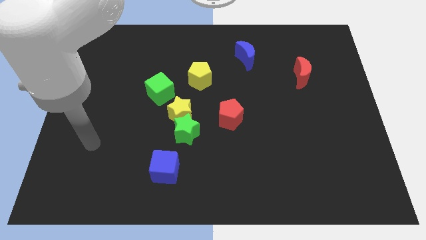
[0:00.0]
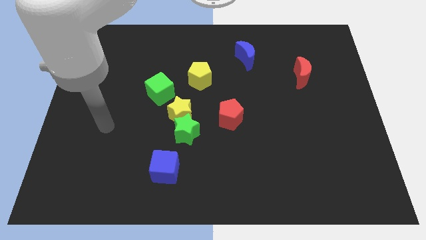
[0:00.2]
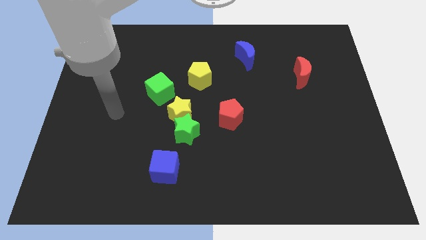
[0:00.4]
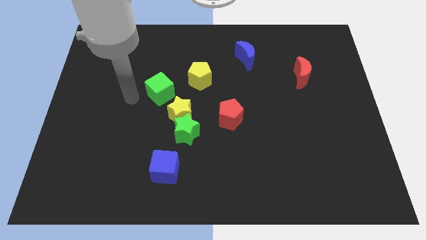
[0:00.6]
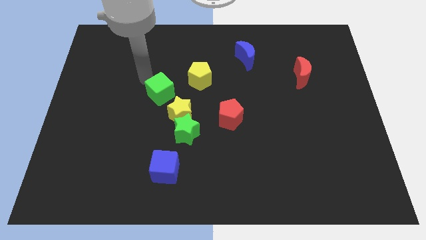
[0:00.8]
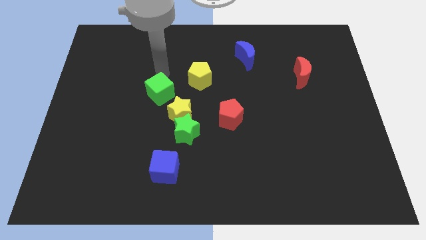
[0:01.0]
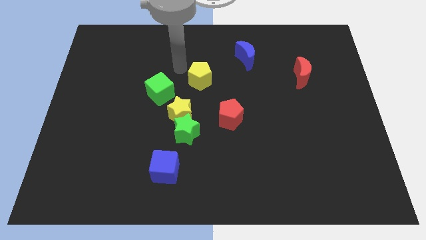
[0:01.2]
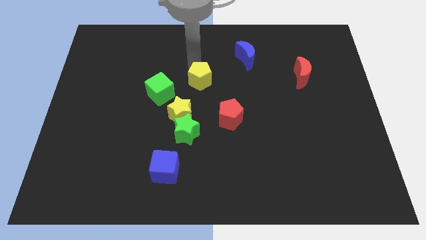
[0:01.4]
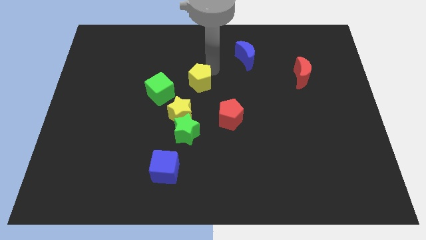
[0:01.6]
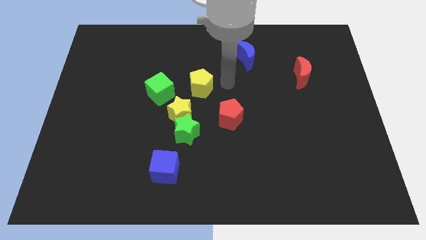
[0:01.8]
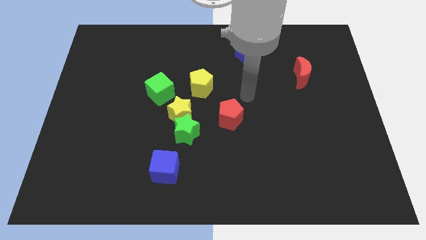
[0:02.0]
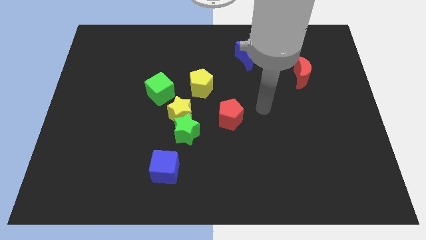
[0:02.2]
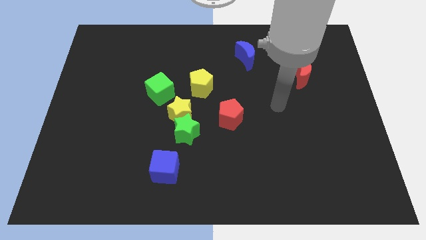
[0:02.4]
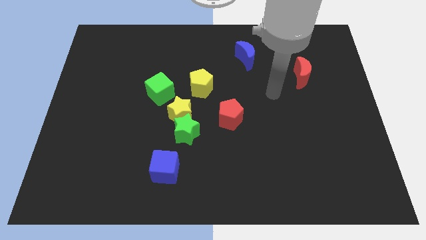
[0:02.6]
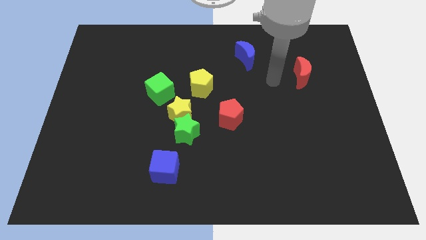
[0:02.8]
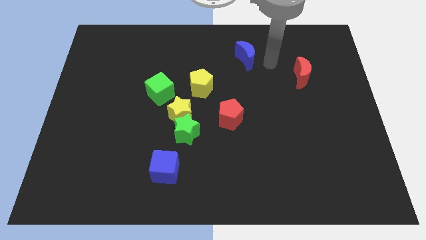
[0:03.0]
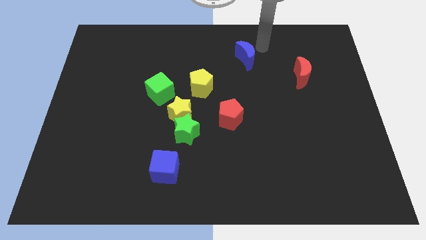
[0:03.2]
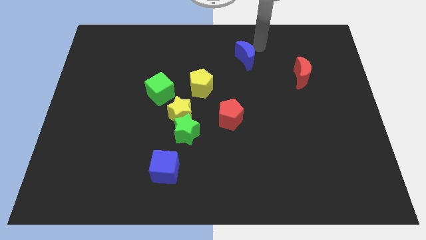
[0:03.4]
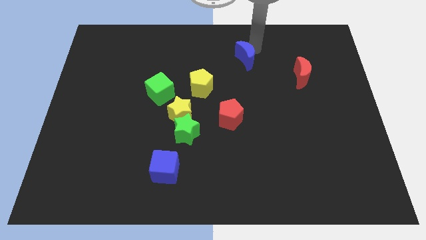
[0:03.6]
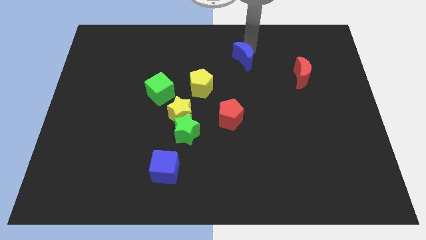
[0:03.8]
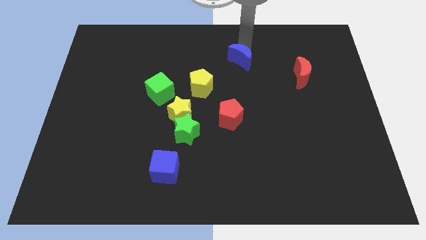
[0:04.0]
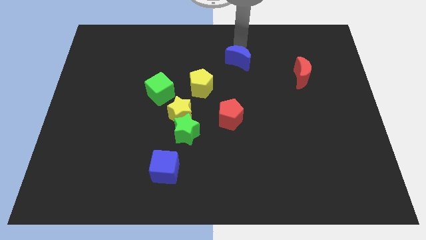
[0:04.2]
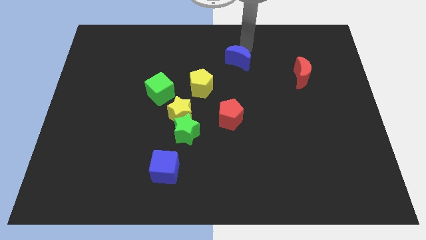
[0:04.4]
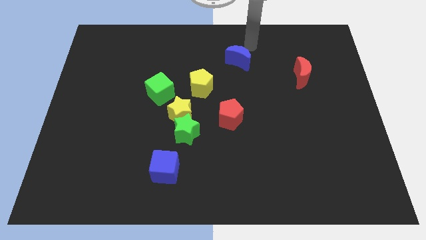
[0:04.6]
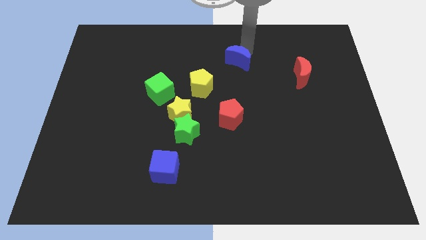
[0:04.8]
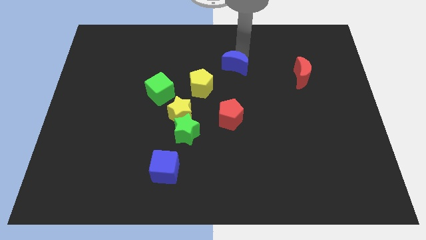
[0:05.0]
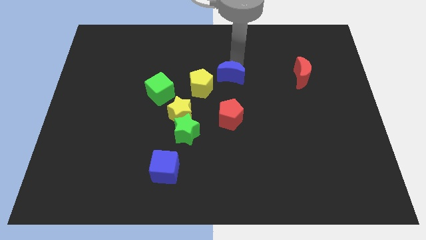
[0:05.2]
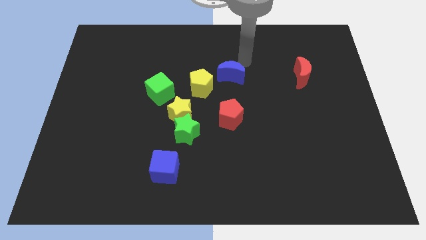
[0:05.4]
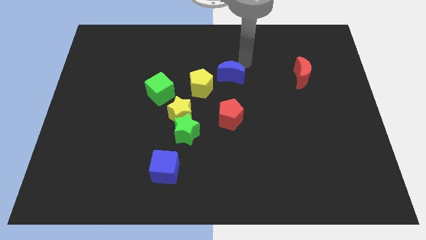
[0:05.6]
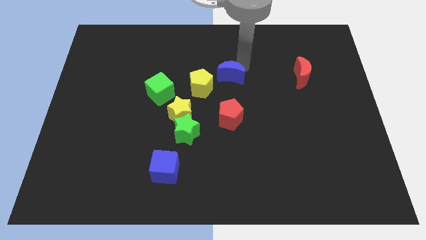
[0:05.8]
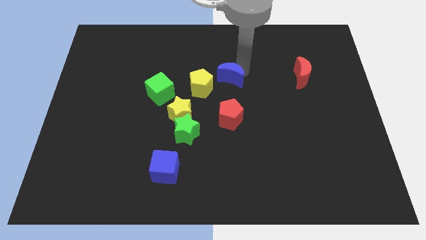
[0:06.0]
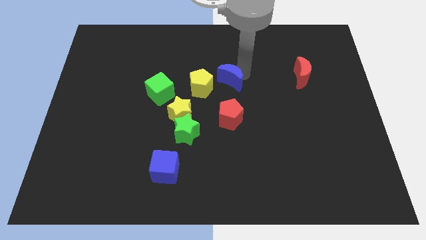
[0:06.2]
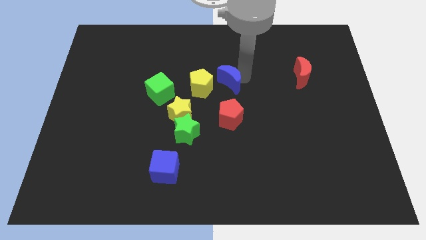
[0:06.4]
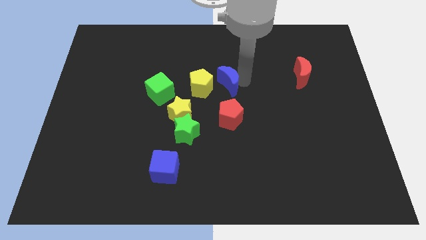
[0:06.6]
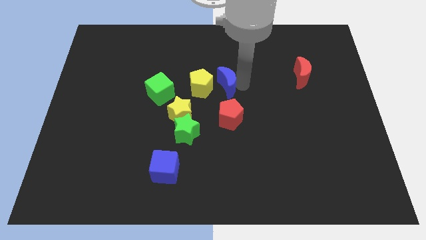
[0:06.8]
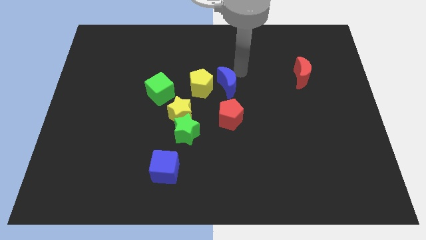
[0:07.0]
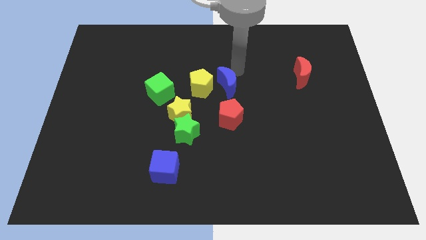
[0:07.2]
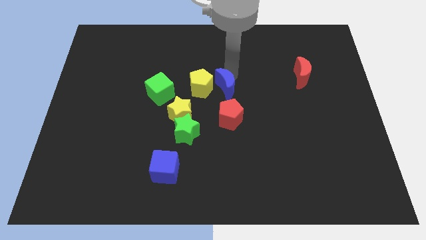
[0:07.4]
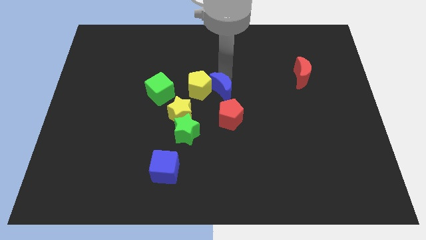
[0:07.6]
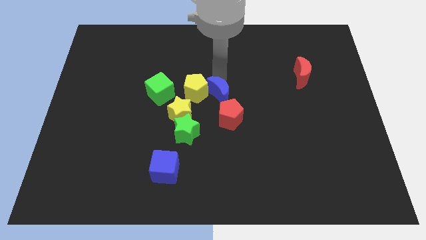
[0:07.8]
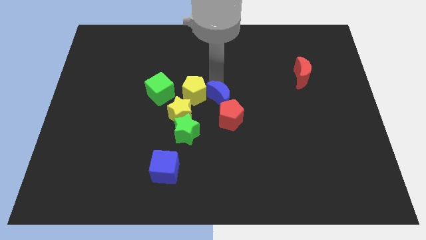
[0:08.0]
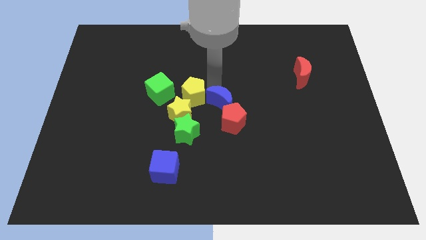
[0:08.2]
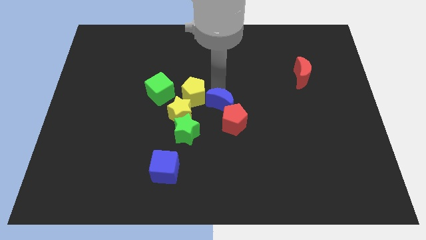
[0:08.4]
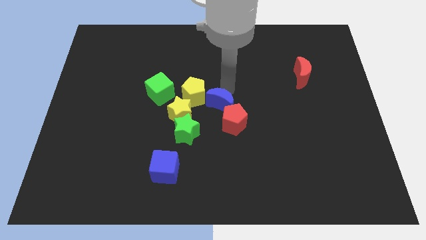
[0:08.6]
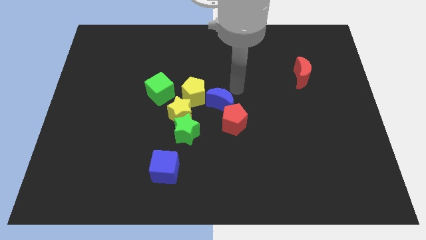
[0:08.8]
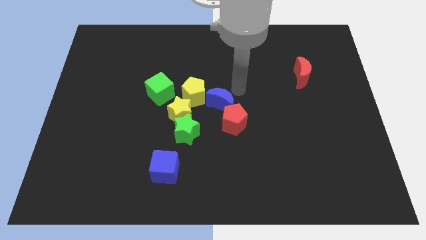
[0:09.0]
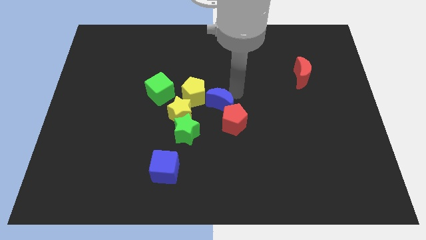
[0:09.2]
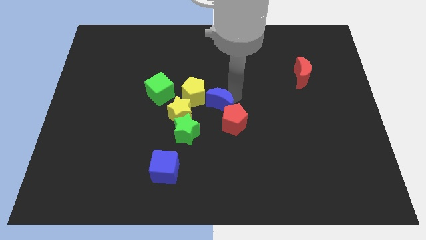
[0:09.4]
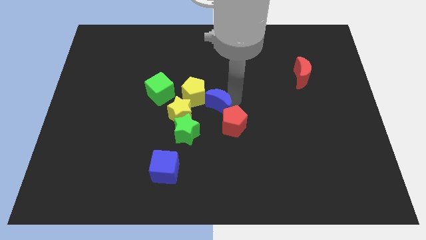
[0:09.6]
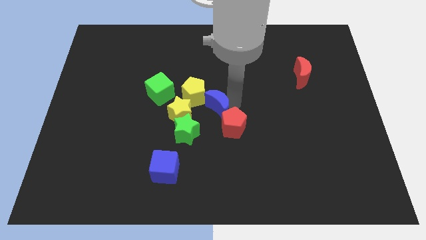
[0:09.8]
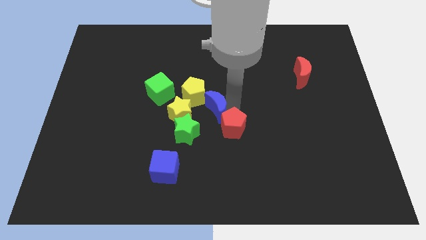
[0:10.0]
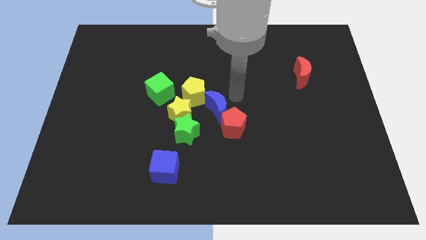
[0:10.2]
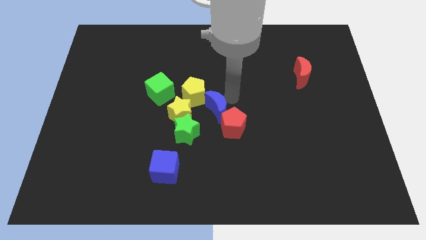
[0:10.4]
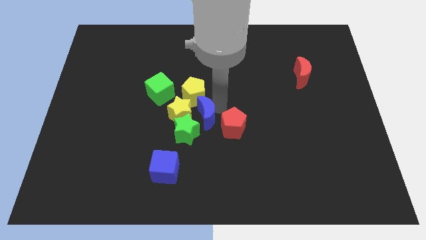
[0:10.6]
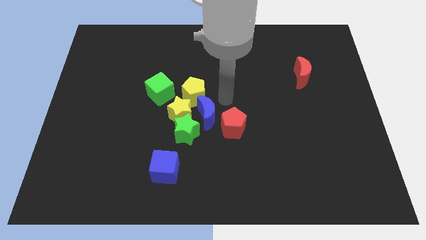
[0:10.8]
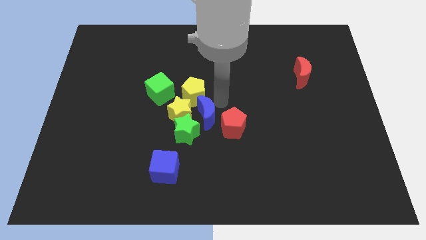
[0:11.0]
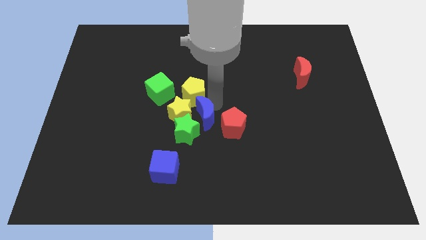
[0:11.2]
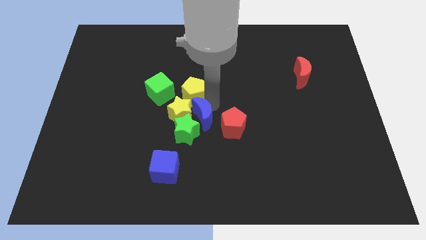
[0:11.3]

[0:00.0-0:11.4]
slide the blue moon next to the green star

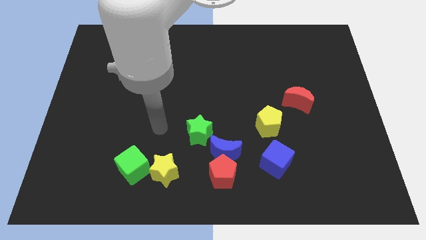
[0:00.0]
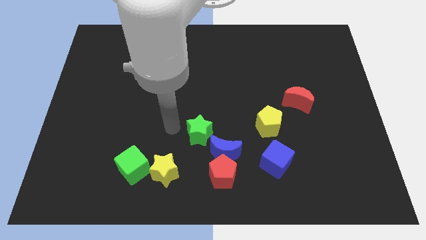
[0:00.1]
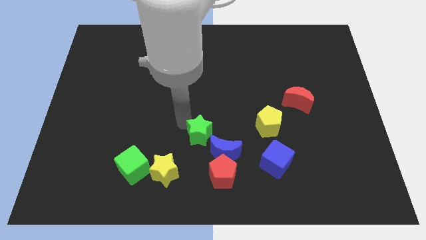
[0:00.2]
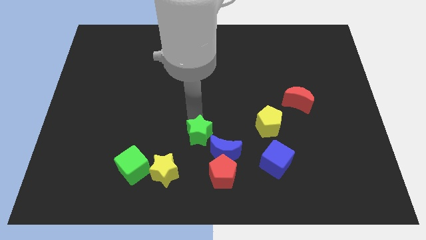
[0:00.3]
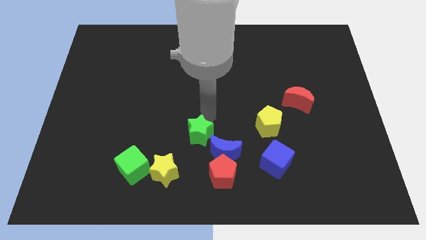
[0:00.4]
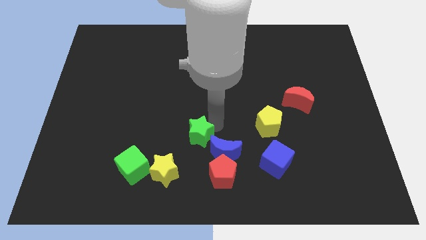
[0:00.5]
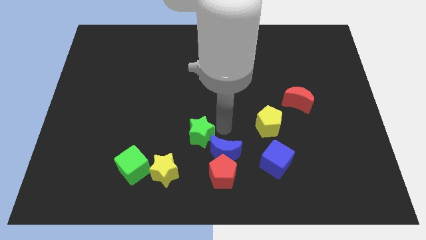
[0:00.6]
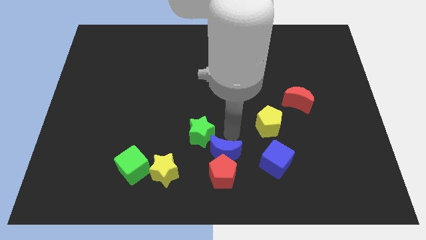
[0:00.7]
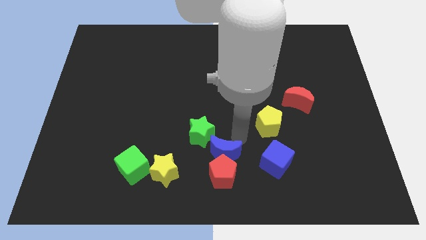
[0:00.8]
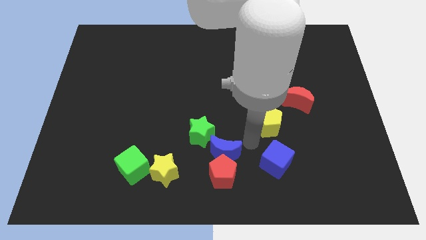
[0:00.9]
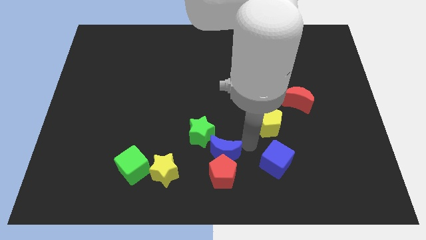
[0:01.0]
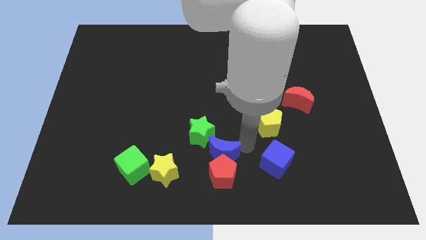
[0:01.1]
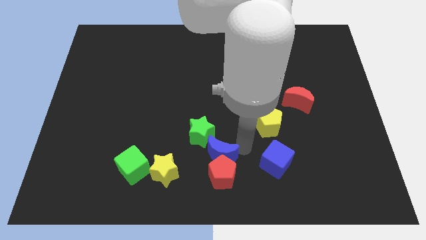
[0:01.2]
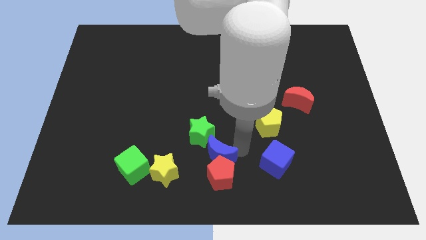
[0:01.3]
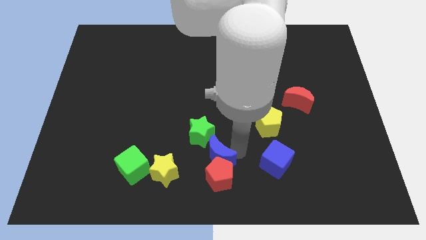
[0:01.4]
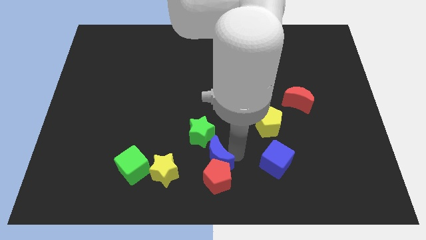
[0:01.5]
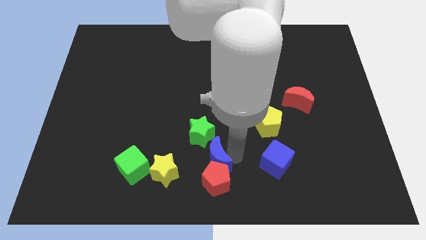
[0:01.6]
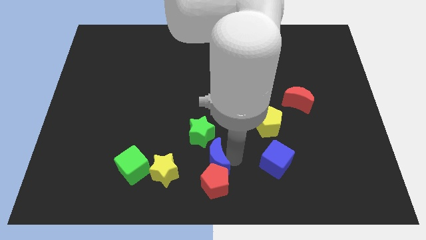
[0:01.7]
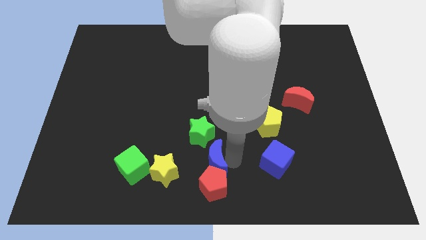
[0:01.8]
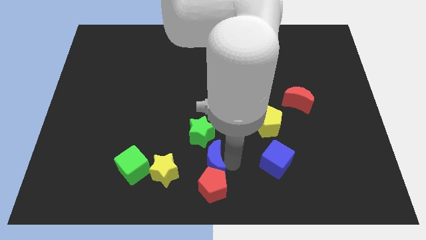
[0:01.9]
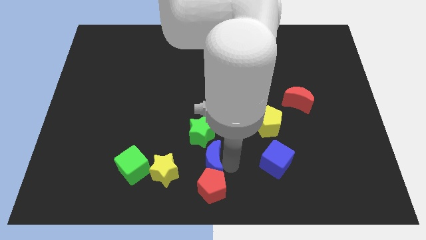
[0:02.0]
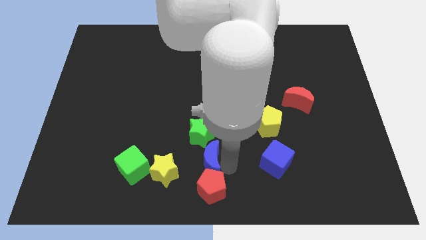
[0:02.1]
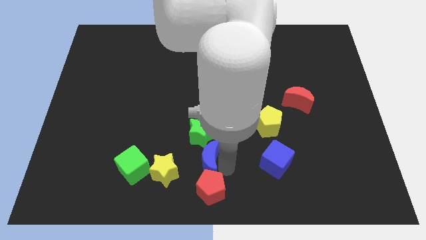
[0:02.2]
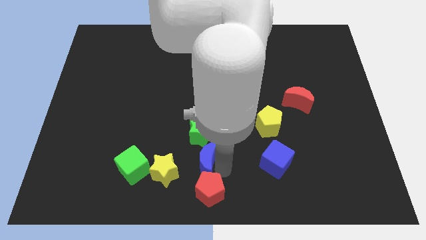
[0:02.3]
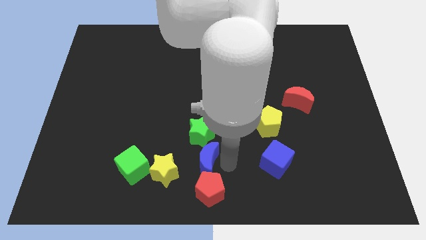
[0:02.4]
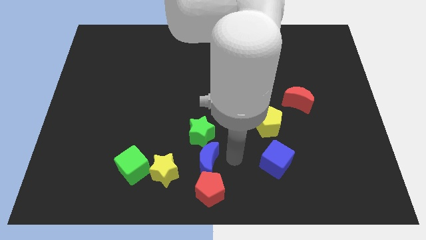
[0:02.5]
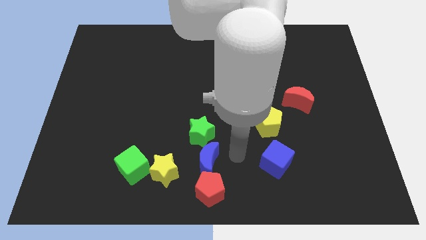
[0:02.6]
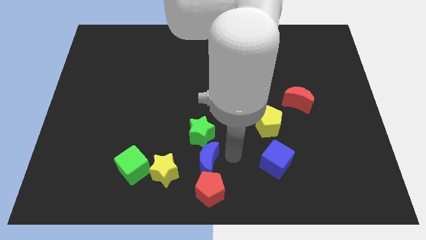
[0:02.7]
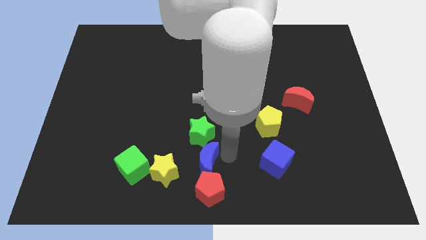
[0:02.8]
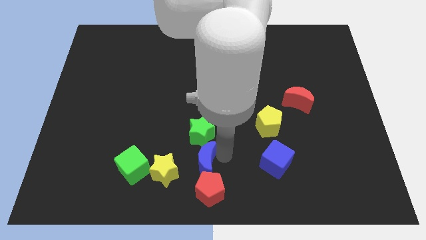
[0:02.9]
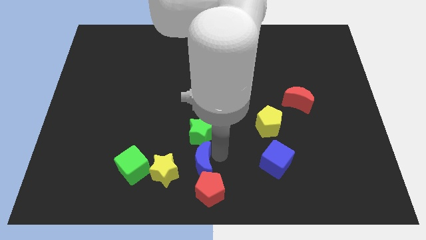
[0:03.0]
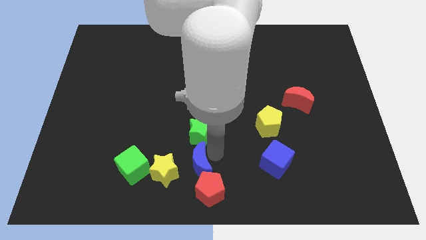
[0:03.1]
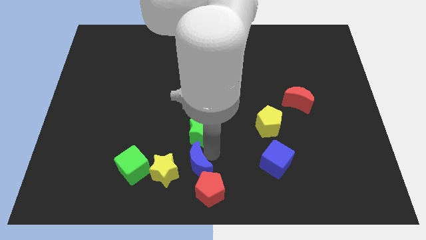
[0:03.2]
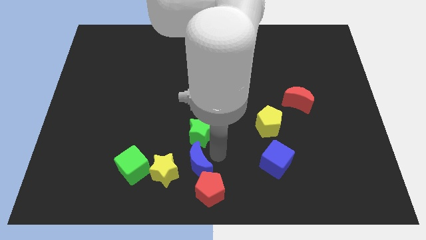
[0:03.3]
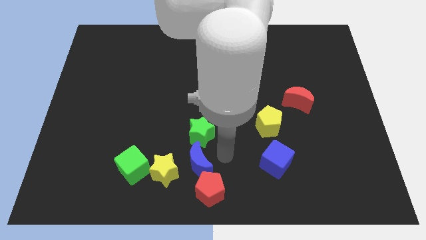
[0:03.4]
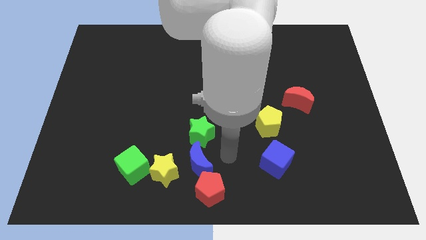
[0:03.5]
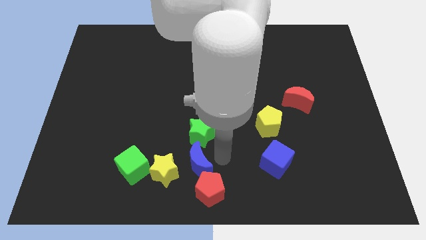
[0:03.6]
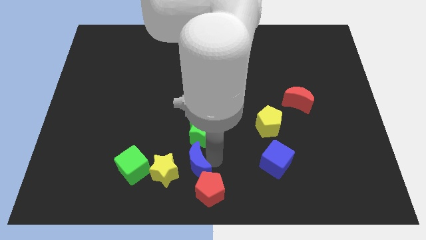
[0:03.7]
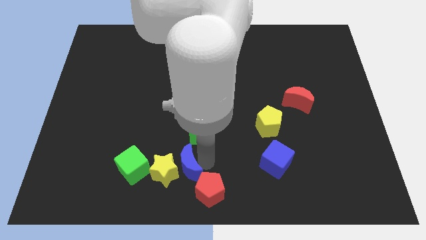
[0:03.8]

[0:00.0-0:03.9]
slide the blue moon next to the yellow star
